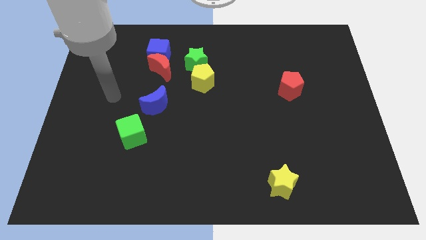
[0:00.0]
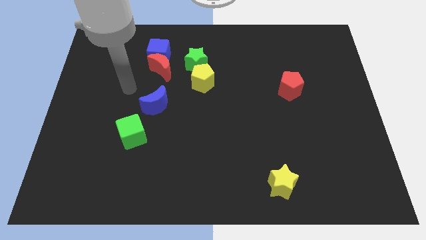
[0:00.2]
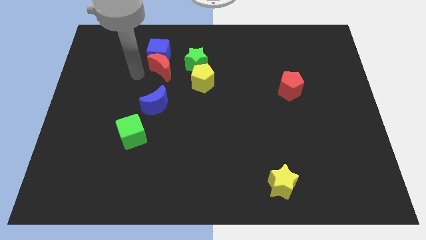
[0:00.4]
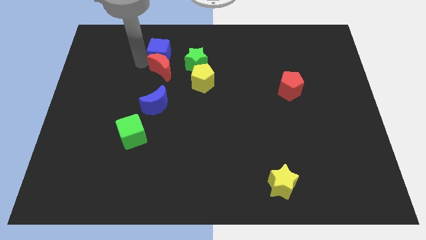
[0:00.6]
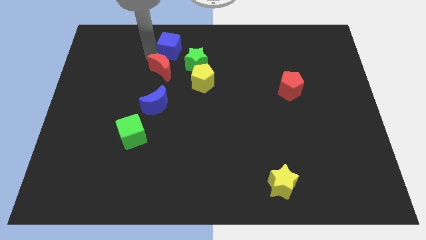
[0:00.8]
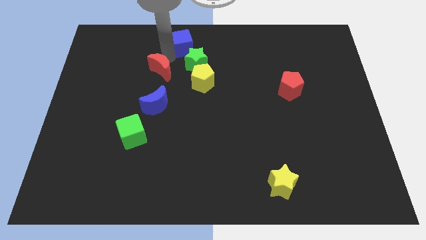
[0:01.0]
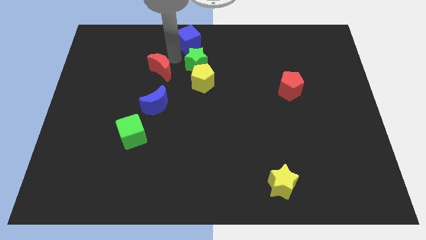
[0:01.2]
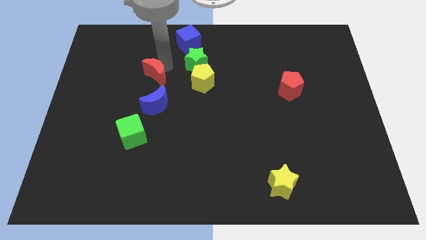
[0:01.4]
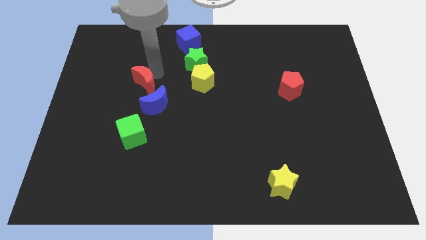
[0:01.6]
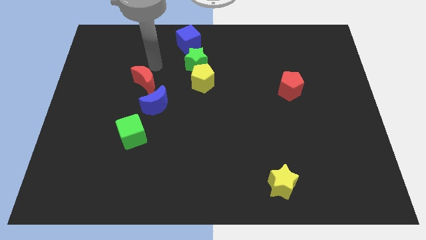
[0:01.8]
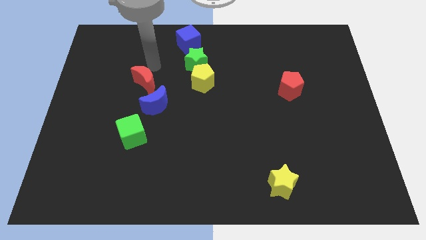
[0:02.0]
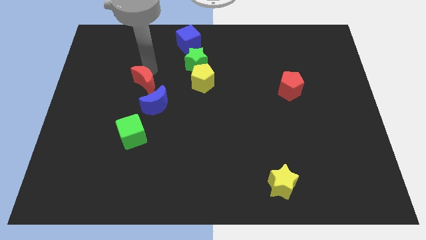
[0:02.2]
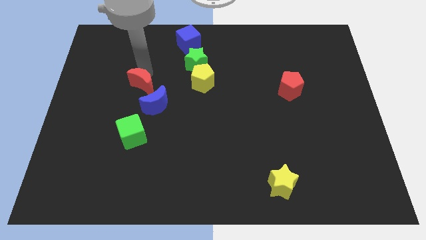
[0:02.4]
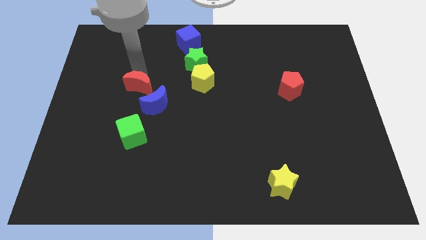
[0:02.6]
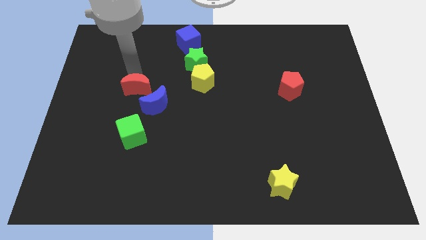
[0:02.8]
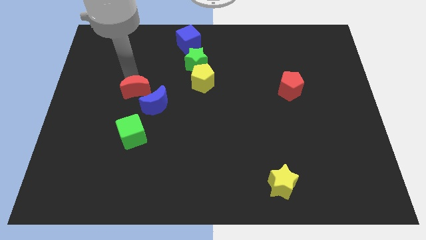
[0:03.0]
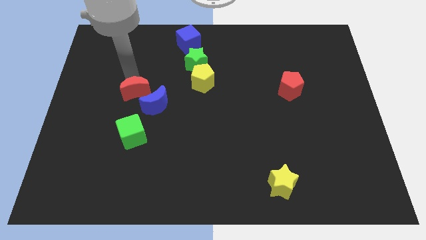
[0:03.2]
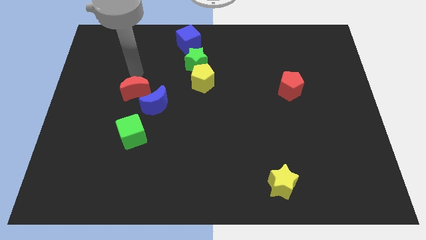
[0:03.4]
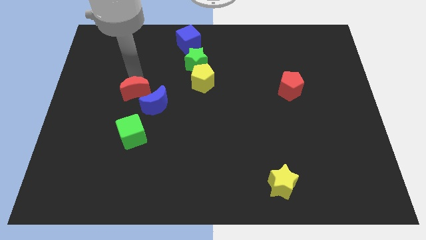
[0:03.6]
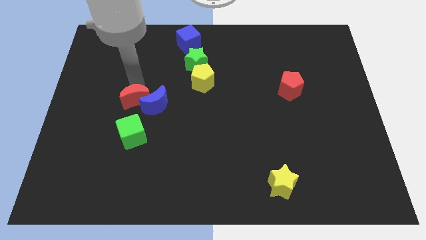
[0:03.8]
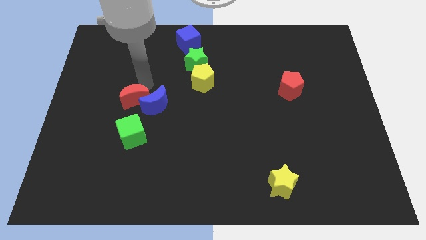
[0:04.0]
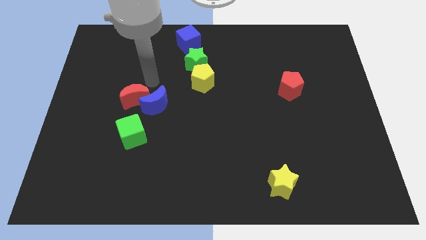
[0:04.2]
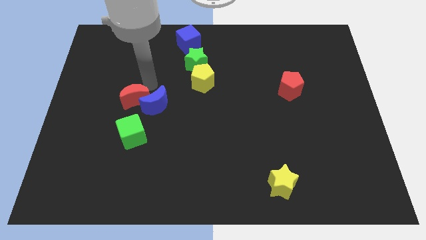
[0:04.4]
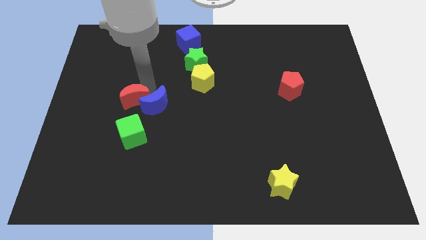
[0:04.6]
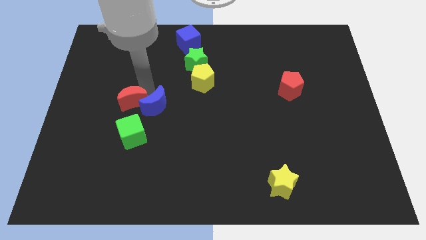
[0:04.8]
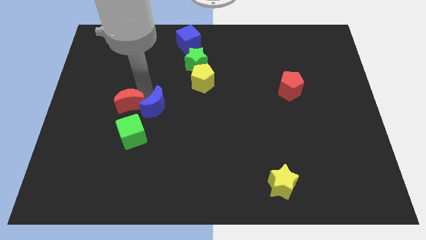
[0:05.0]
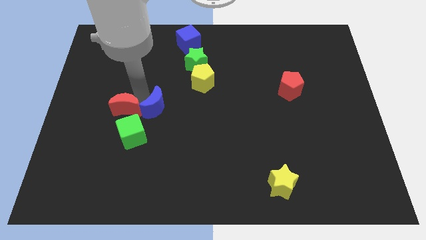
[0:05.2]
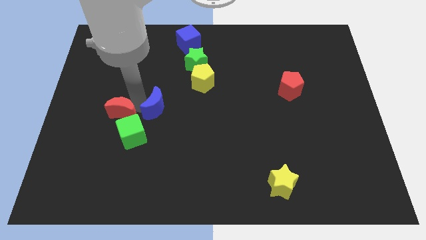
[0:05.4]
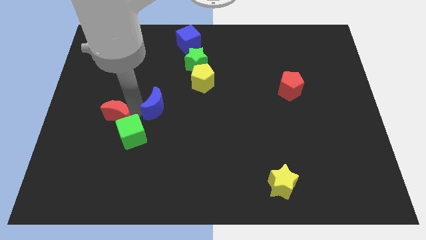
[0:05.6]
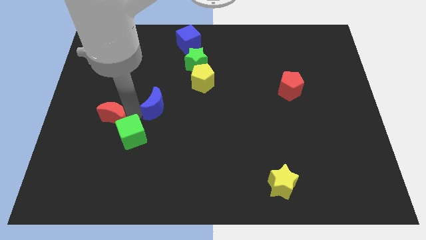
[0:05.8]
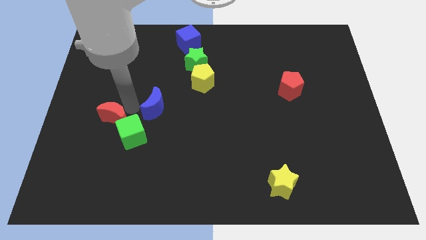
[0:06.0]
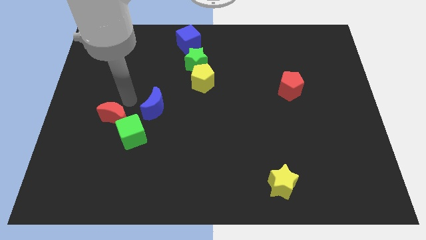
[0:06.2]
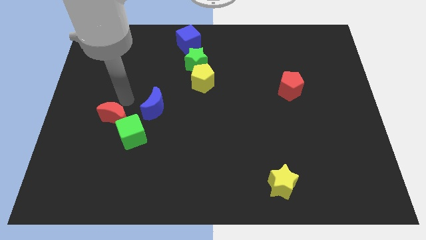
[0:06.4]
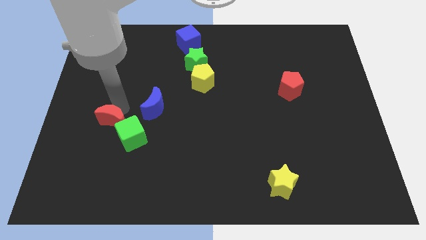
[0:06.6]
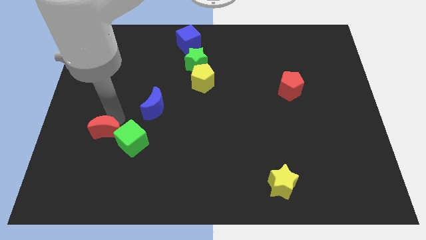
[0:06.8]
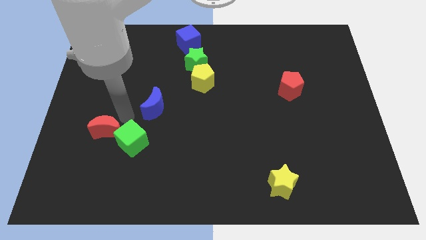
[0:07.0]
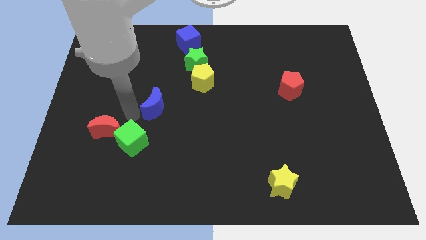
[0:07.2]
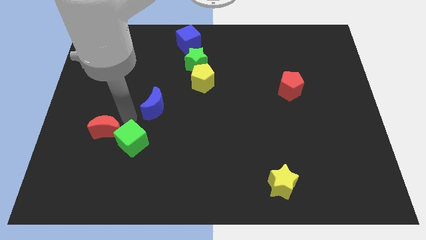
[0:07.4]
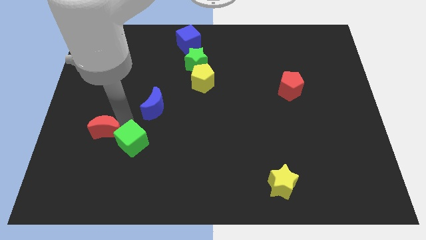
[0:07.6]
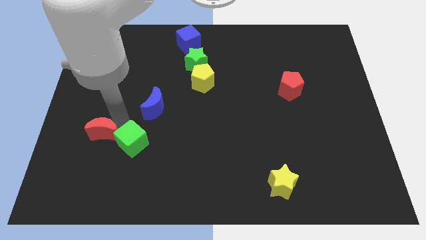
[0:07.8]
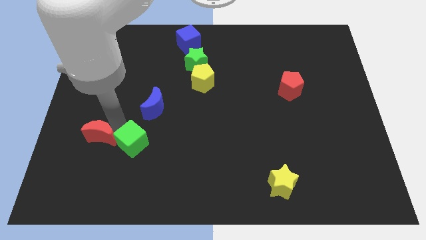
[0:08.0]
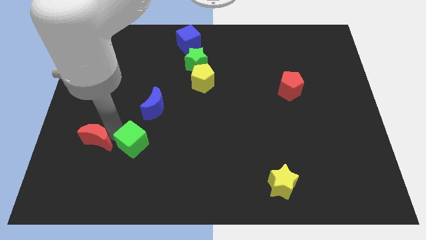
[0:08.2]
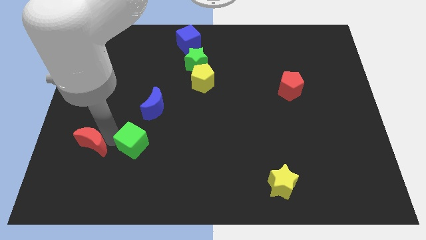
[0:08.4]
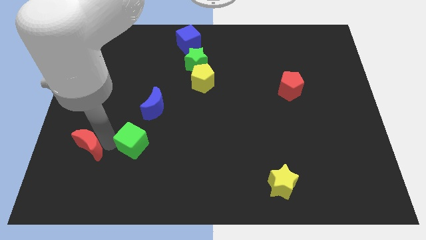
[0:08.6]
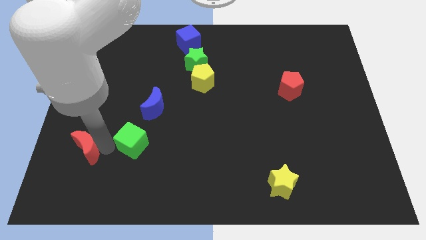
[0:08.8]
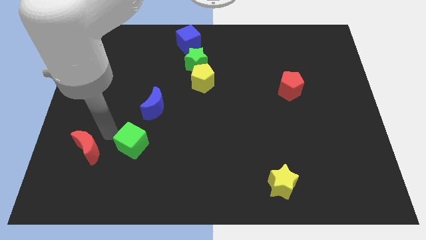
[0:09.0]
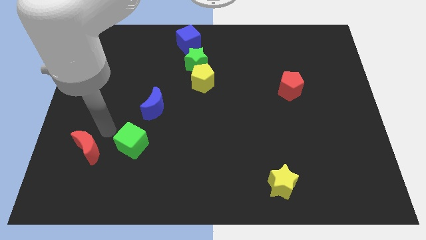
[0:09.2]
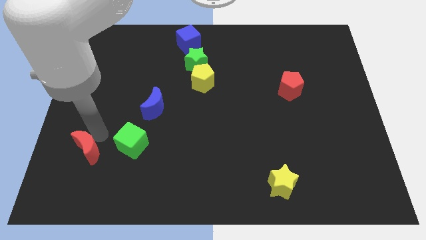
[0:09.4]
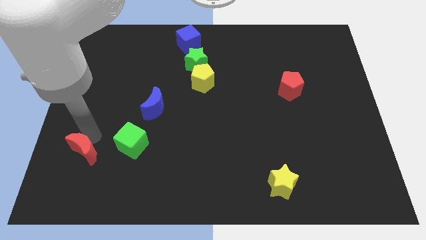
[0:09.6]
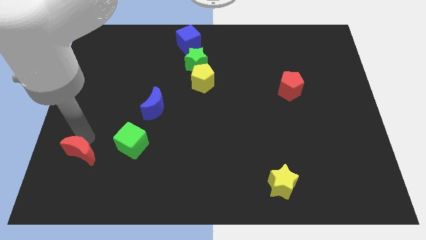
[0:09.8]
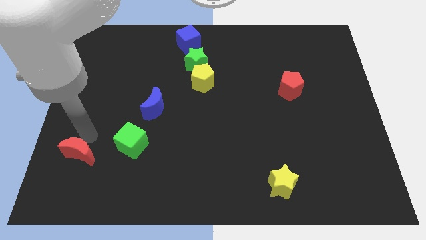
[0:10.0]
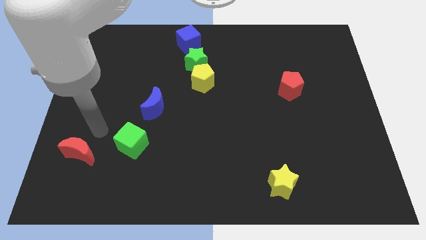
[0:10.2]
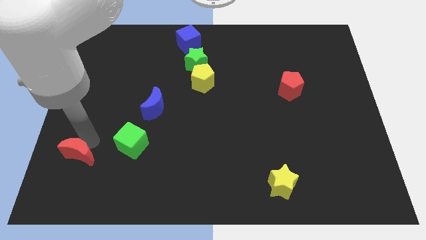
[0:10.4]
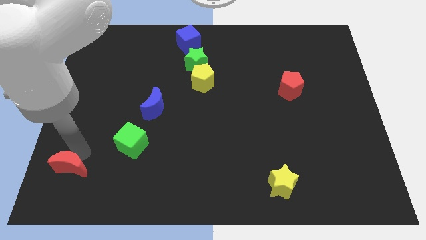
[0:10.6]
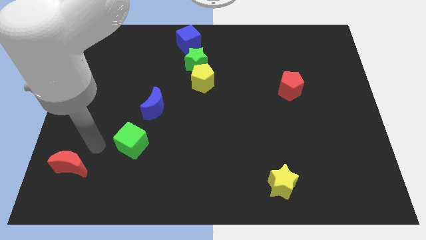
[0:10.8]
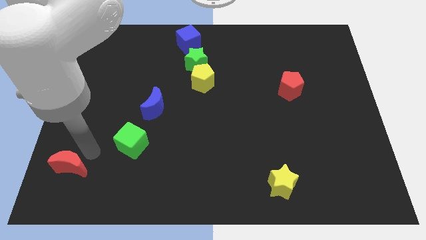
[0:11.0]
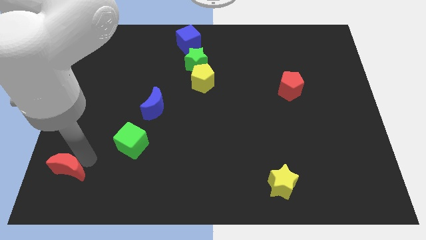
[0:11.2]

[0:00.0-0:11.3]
slide the red moon to the lower left corner
